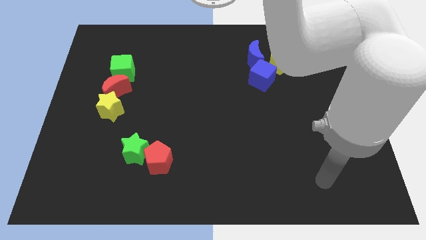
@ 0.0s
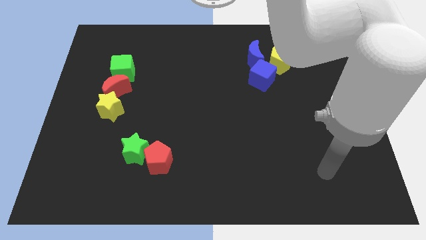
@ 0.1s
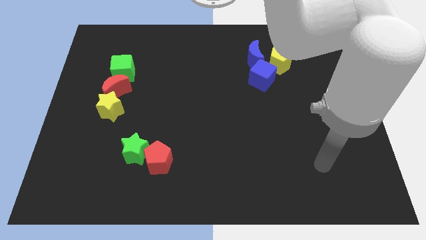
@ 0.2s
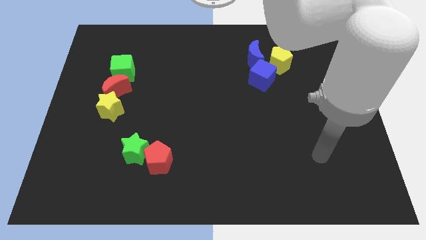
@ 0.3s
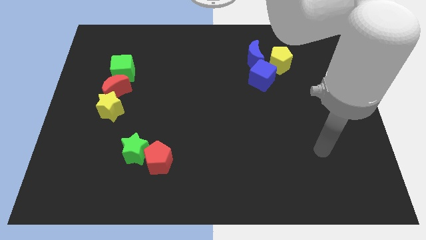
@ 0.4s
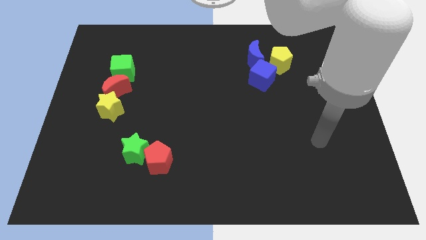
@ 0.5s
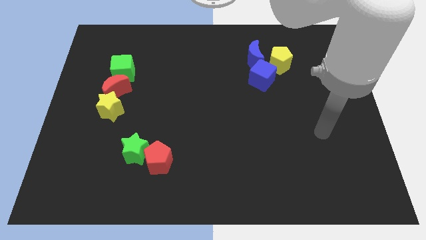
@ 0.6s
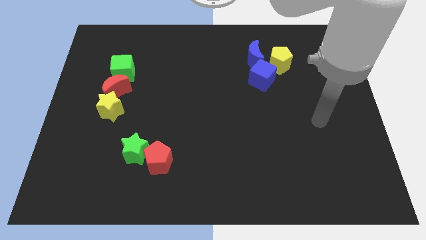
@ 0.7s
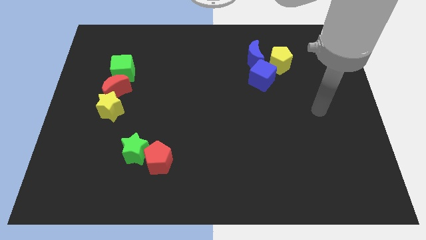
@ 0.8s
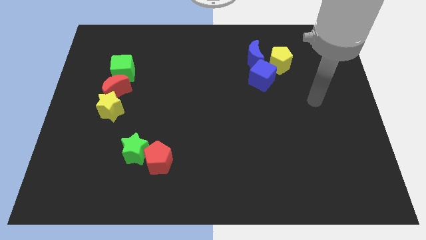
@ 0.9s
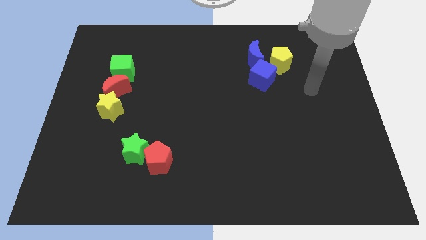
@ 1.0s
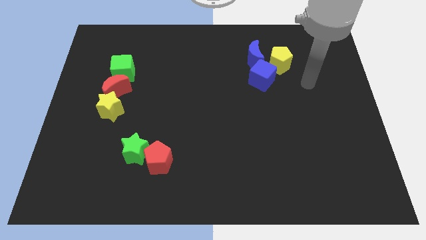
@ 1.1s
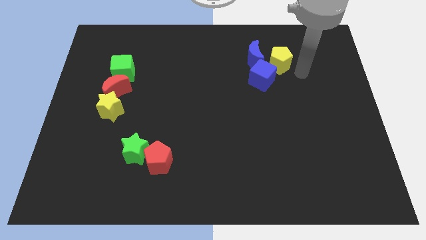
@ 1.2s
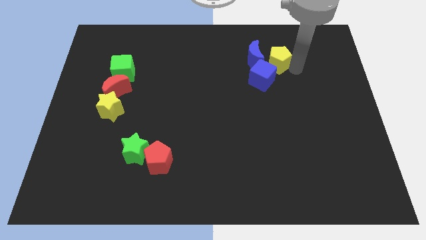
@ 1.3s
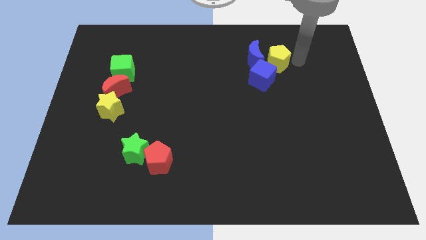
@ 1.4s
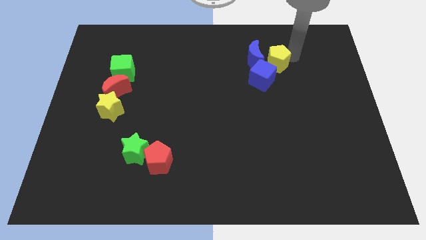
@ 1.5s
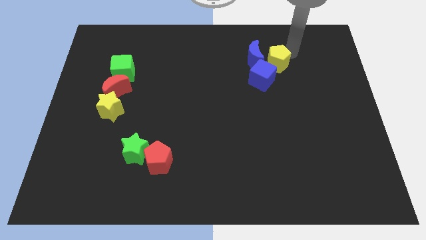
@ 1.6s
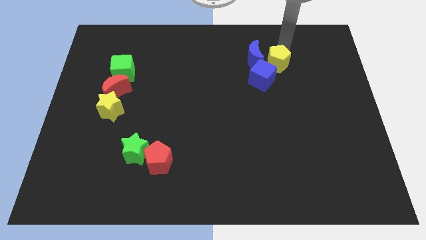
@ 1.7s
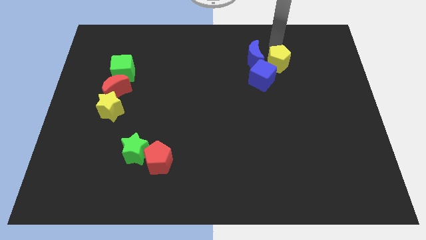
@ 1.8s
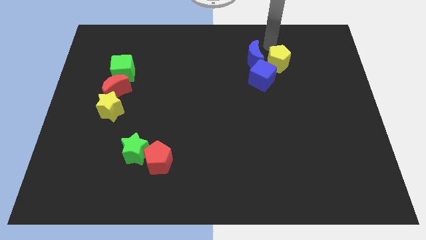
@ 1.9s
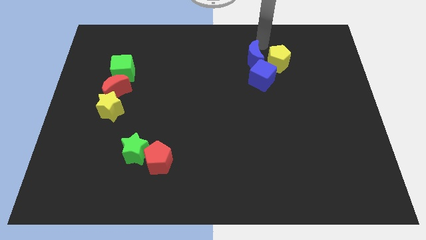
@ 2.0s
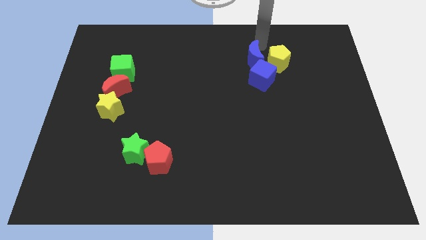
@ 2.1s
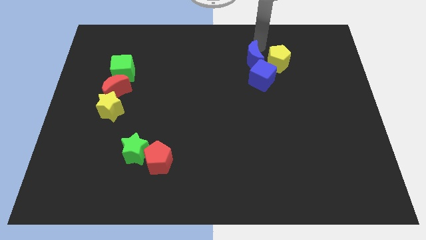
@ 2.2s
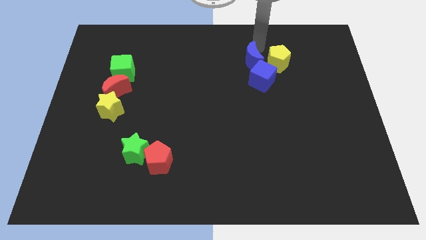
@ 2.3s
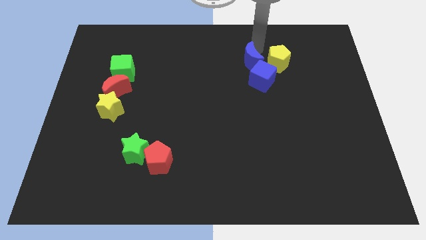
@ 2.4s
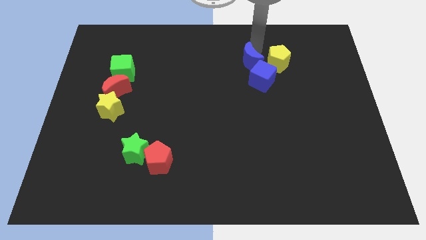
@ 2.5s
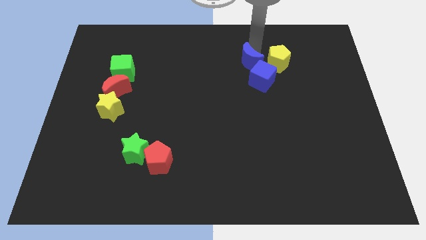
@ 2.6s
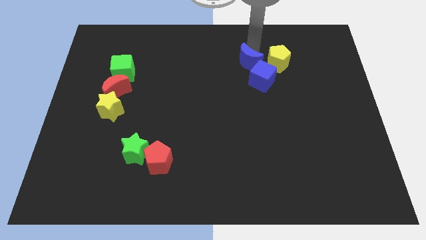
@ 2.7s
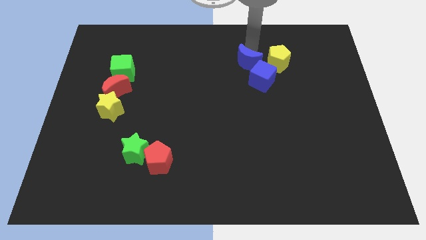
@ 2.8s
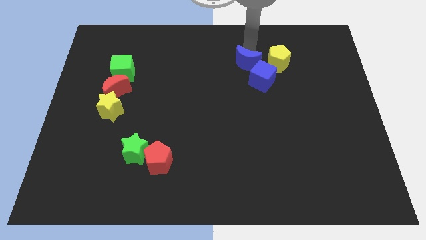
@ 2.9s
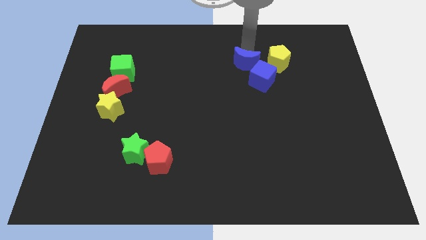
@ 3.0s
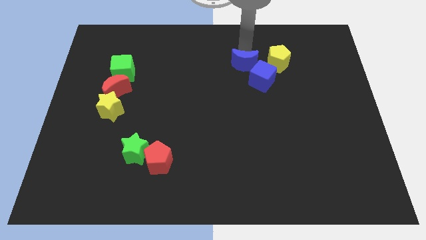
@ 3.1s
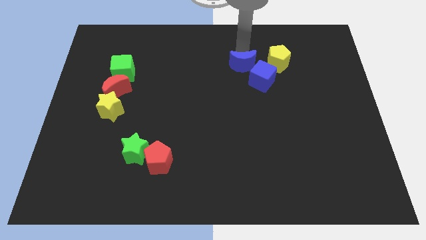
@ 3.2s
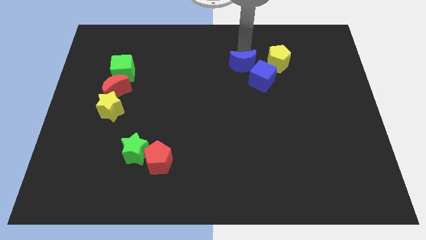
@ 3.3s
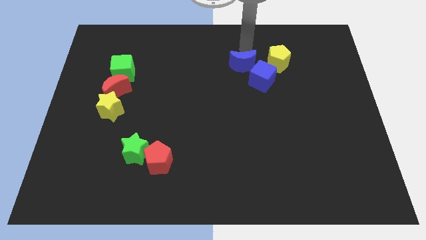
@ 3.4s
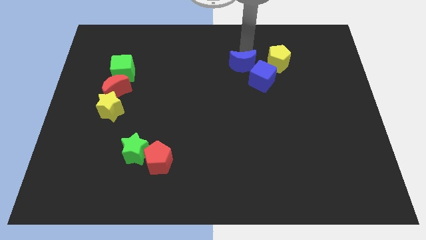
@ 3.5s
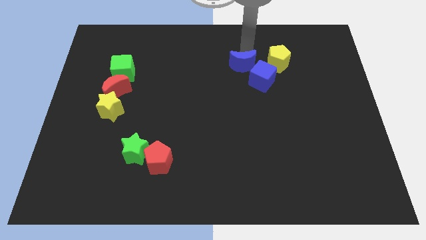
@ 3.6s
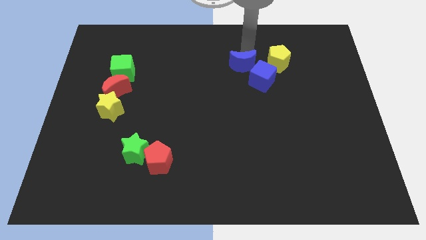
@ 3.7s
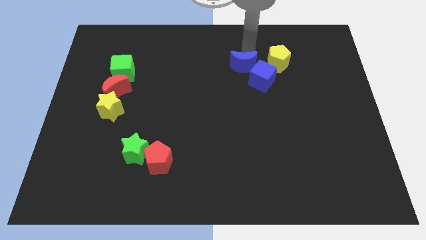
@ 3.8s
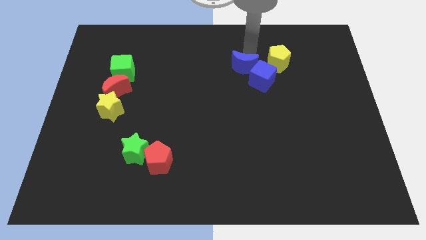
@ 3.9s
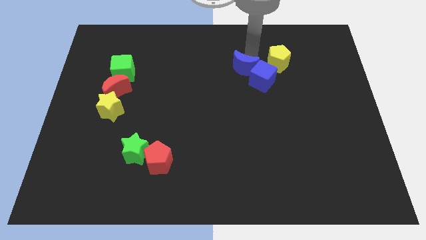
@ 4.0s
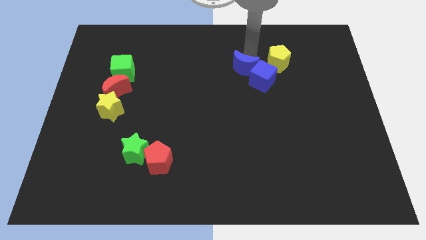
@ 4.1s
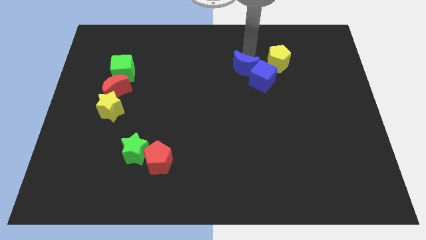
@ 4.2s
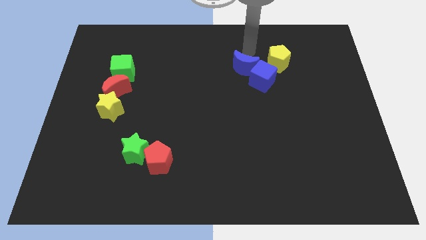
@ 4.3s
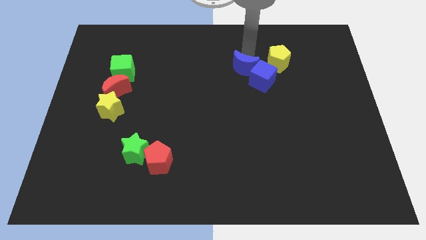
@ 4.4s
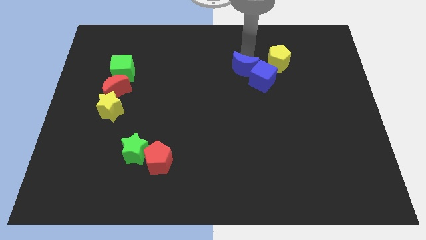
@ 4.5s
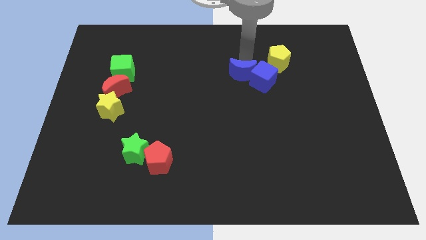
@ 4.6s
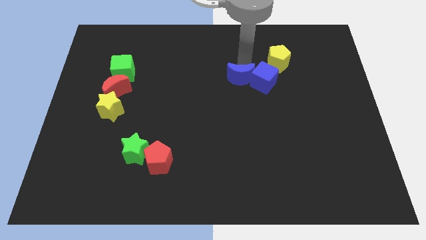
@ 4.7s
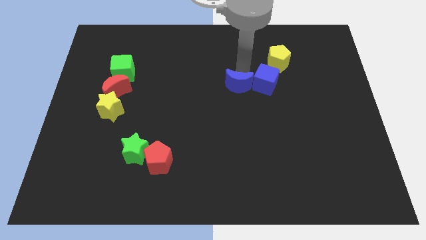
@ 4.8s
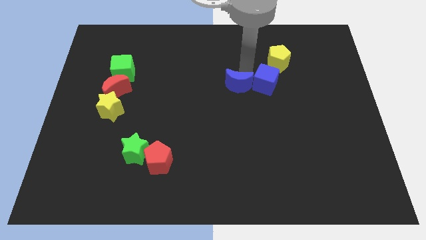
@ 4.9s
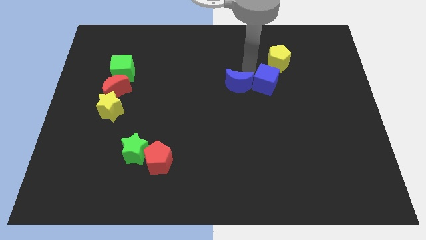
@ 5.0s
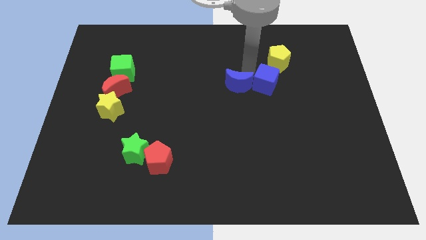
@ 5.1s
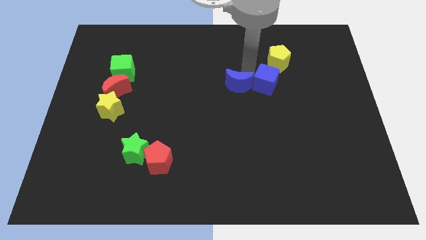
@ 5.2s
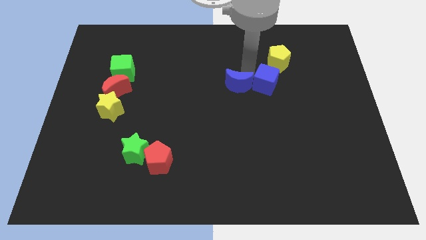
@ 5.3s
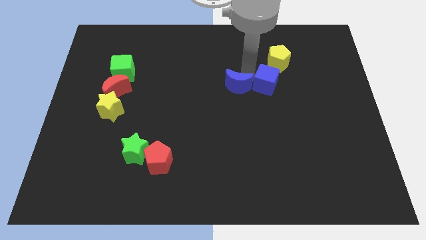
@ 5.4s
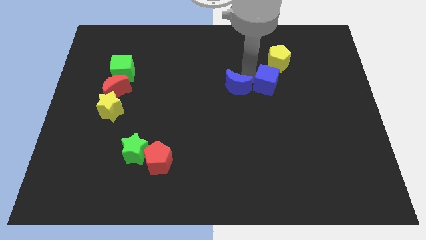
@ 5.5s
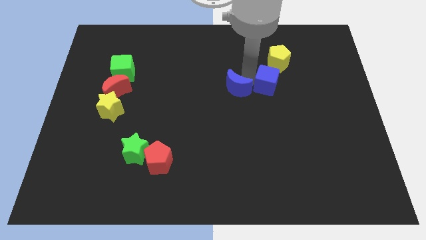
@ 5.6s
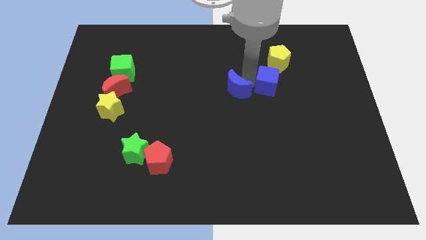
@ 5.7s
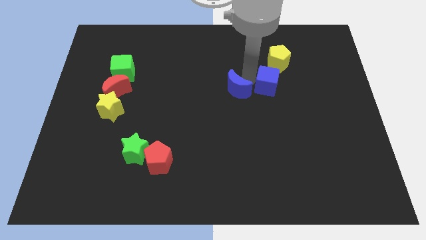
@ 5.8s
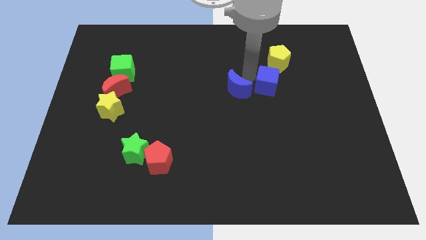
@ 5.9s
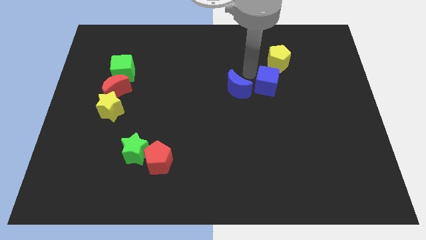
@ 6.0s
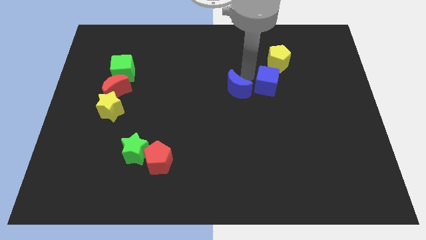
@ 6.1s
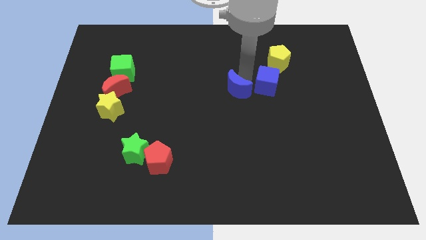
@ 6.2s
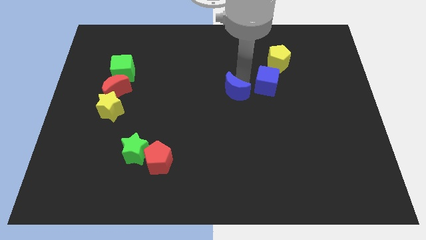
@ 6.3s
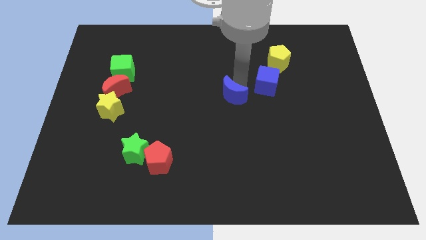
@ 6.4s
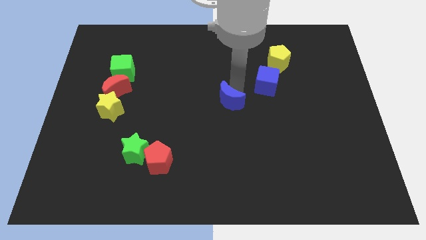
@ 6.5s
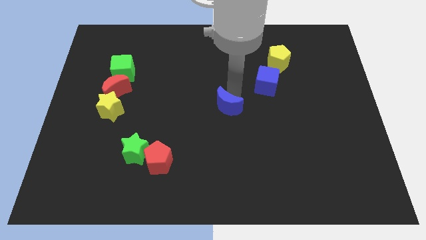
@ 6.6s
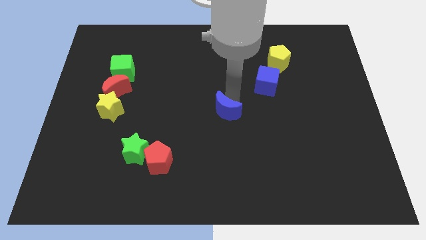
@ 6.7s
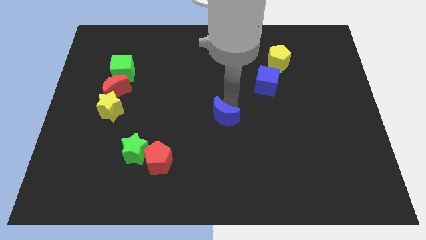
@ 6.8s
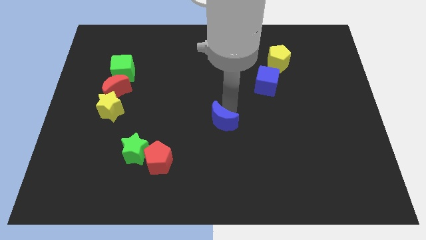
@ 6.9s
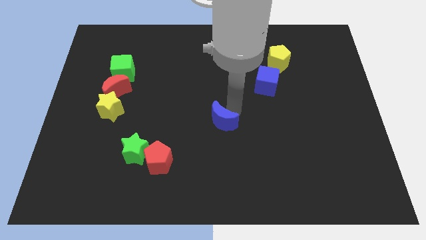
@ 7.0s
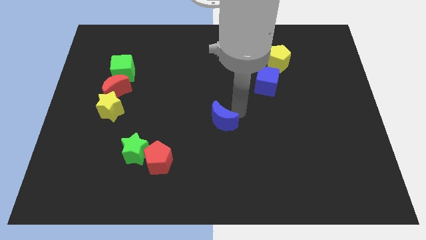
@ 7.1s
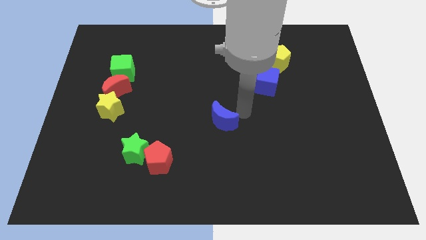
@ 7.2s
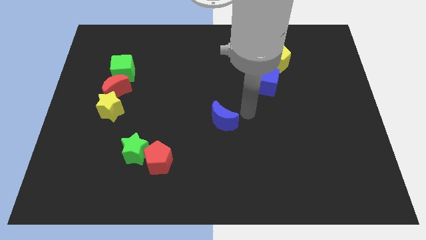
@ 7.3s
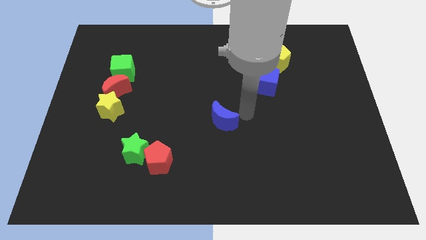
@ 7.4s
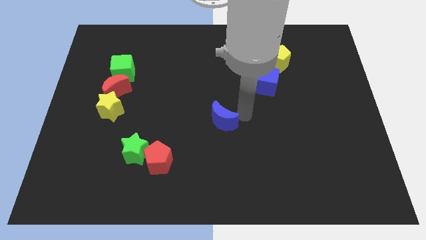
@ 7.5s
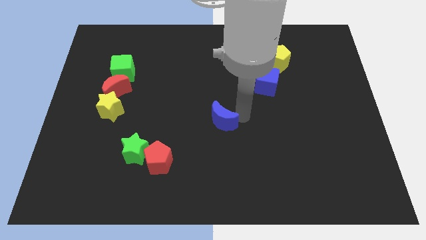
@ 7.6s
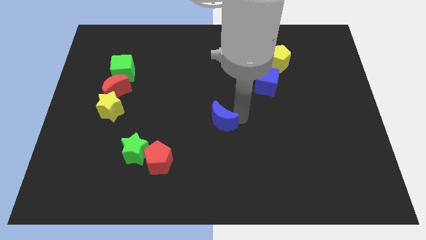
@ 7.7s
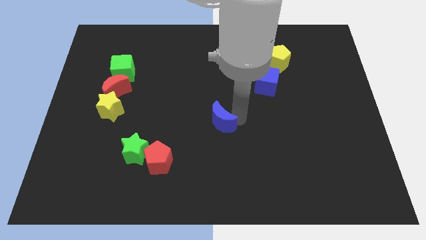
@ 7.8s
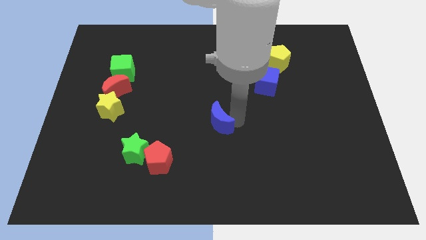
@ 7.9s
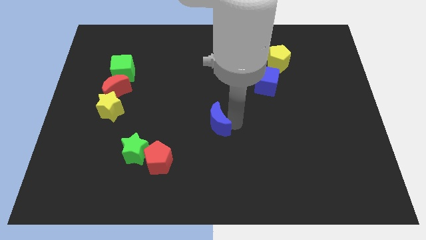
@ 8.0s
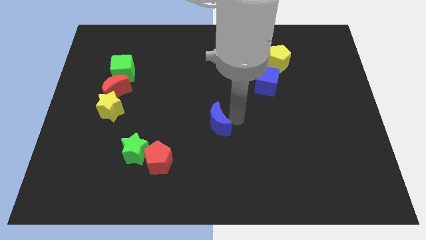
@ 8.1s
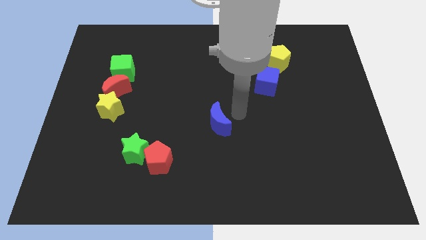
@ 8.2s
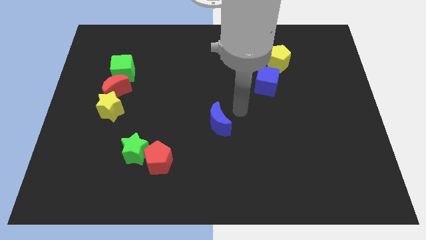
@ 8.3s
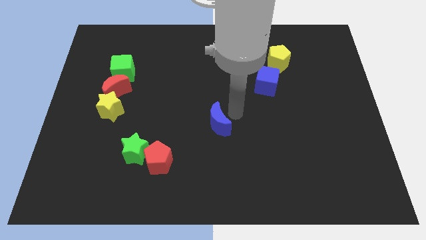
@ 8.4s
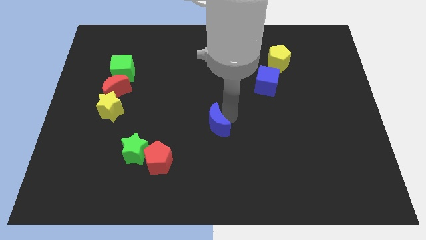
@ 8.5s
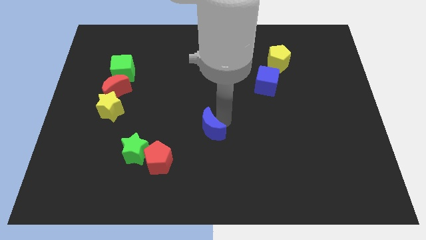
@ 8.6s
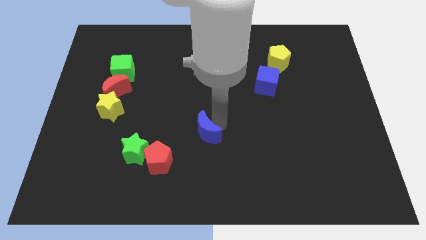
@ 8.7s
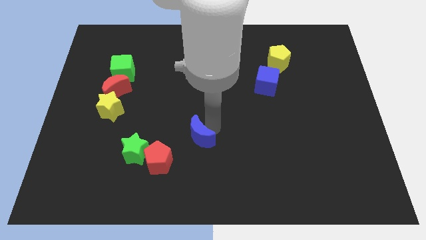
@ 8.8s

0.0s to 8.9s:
push the blue moon just right of the green star
